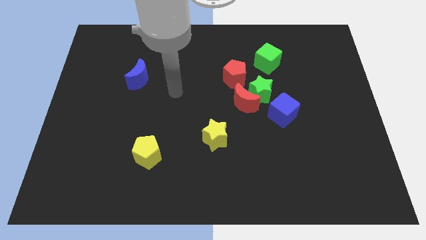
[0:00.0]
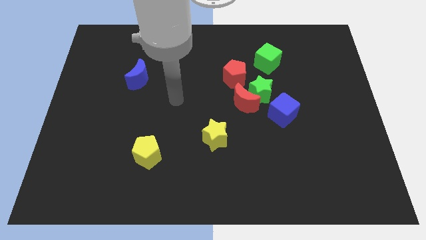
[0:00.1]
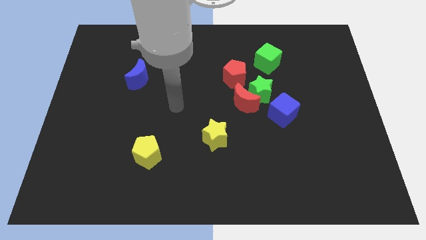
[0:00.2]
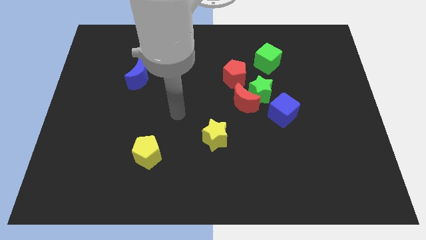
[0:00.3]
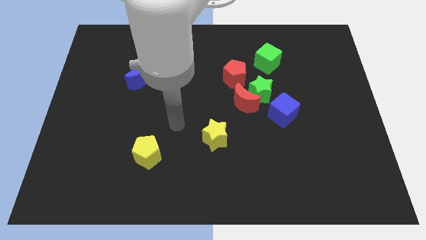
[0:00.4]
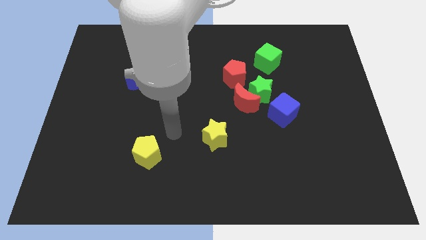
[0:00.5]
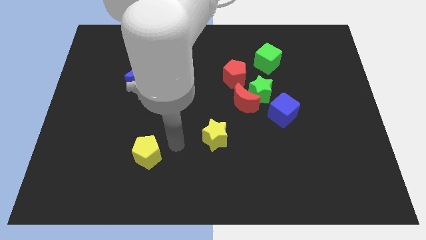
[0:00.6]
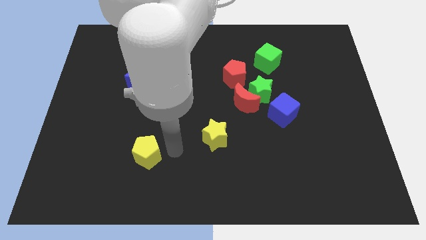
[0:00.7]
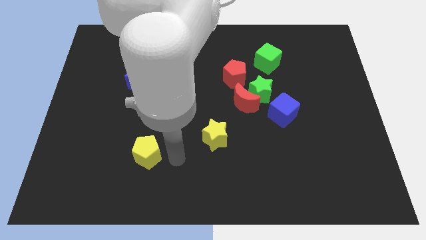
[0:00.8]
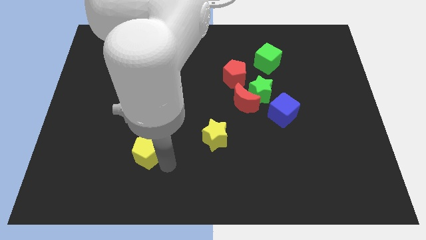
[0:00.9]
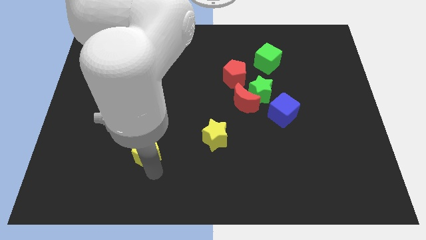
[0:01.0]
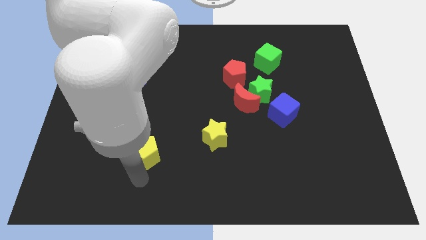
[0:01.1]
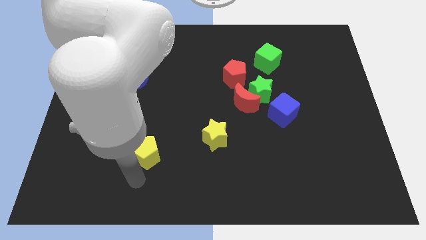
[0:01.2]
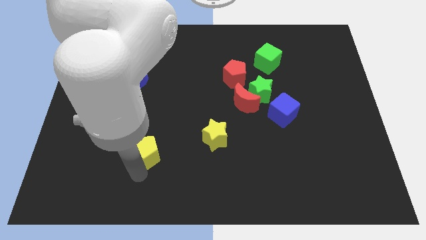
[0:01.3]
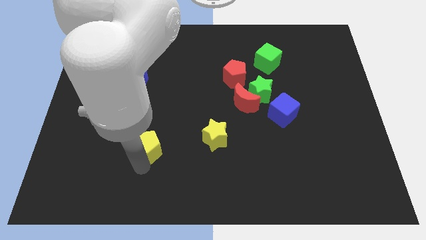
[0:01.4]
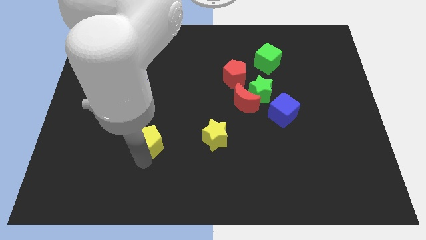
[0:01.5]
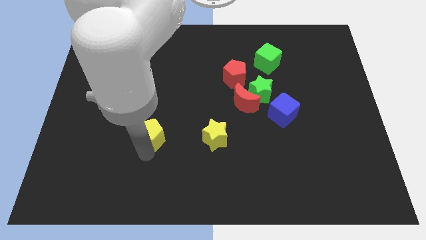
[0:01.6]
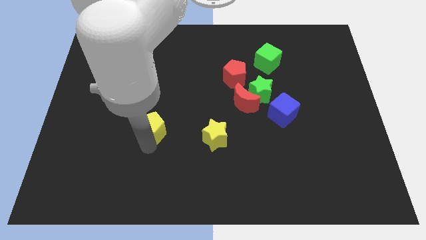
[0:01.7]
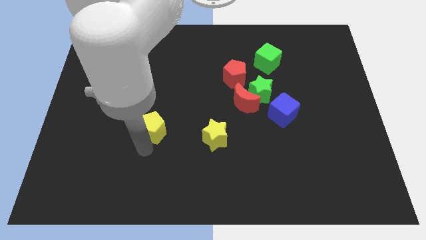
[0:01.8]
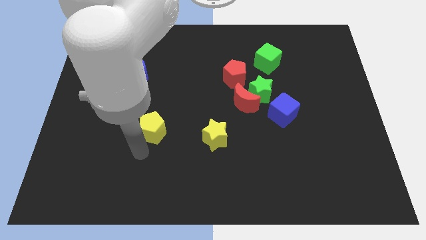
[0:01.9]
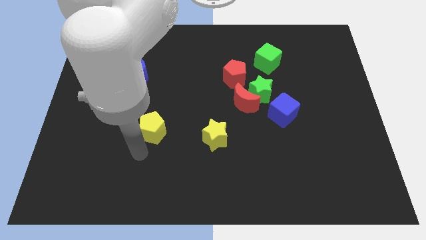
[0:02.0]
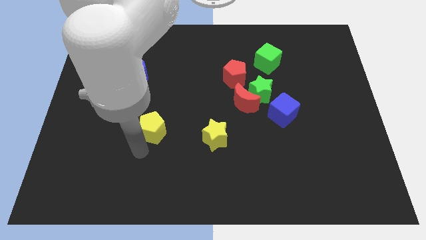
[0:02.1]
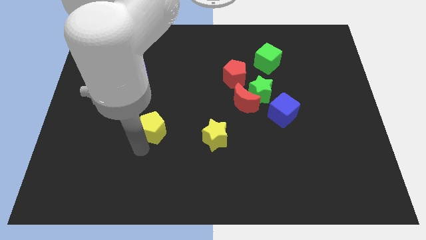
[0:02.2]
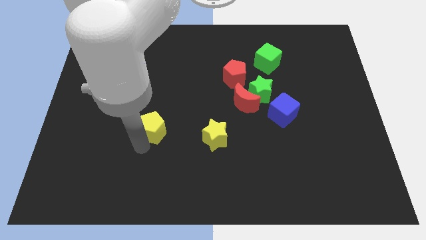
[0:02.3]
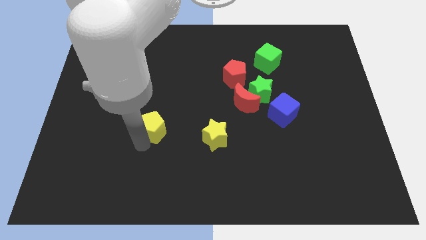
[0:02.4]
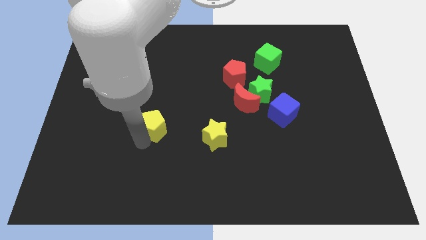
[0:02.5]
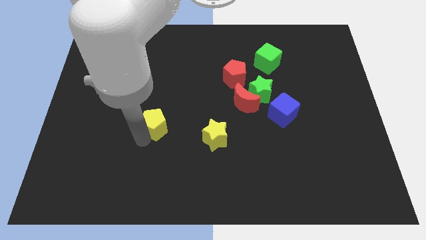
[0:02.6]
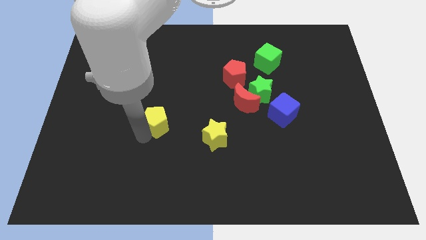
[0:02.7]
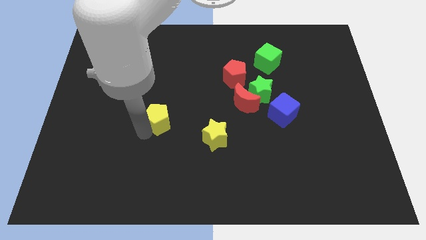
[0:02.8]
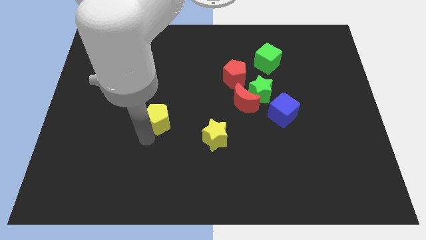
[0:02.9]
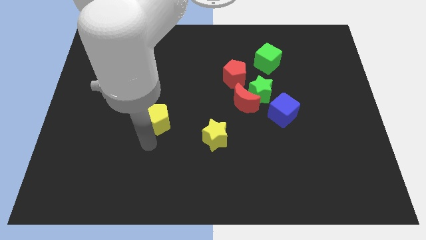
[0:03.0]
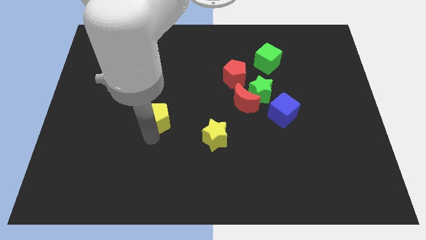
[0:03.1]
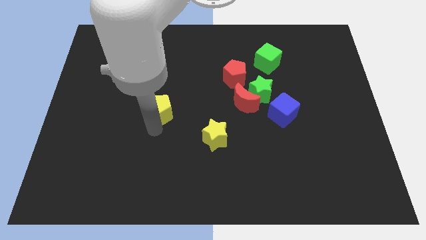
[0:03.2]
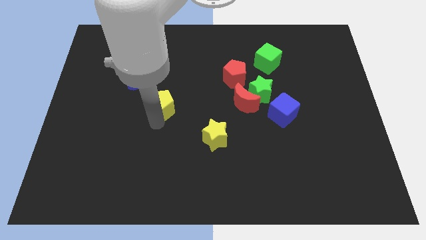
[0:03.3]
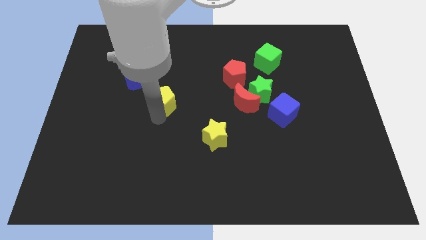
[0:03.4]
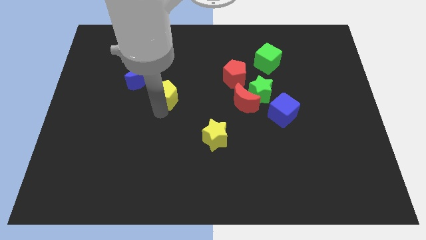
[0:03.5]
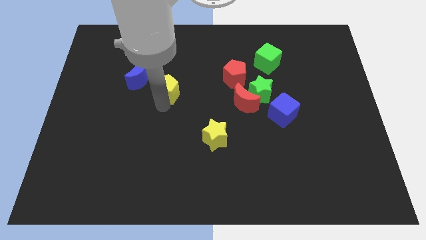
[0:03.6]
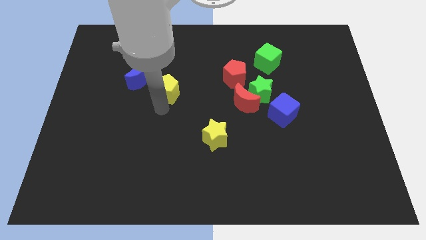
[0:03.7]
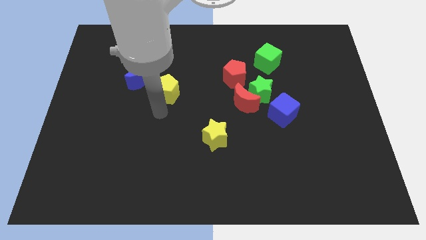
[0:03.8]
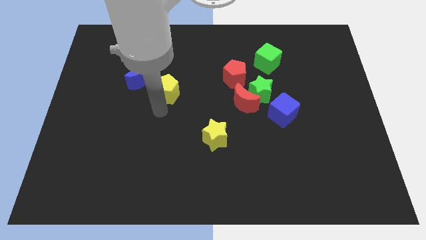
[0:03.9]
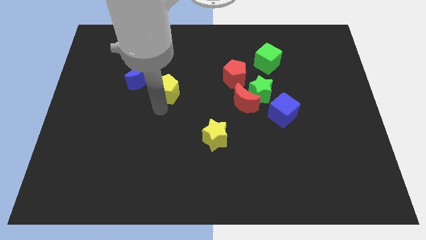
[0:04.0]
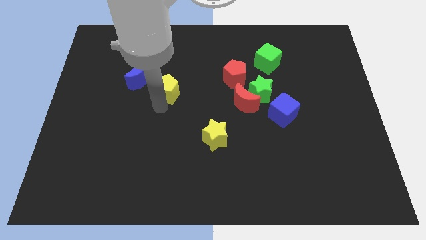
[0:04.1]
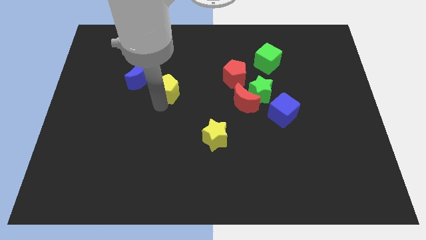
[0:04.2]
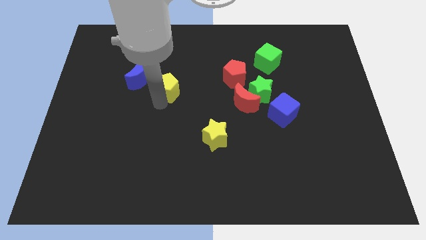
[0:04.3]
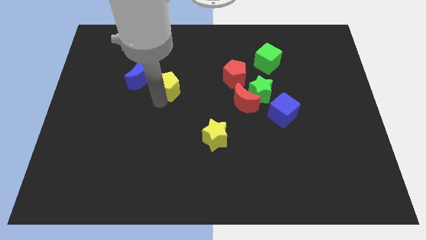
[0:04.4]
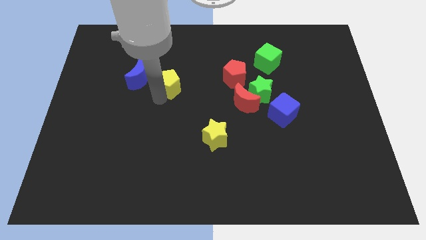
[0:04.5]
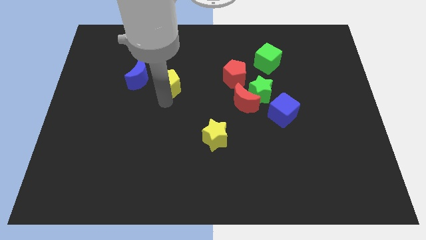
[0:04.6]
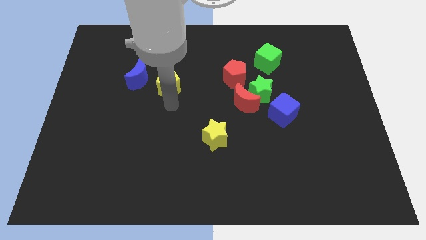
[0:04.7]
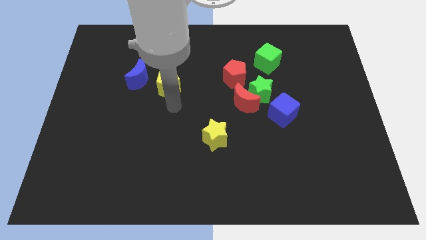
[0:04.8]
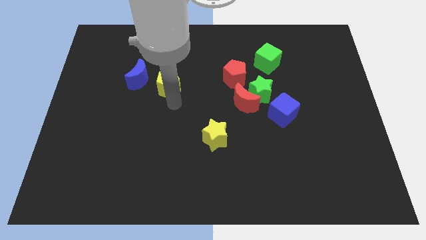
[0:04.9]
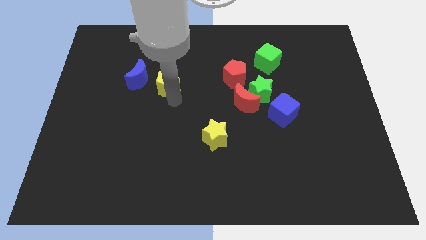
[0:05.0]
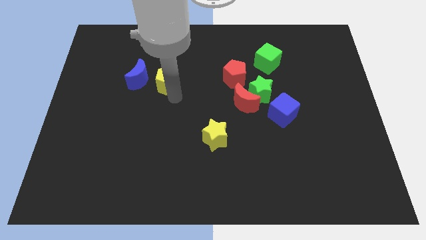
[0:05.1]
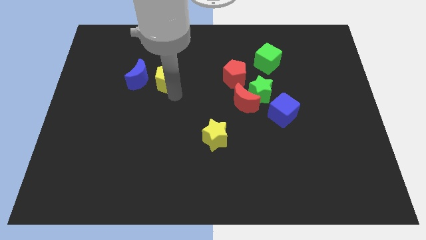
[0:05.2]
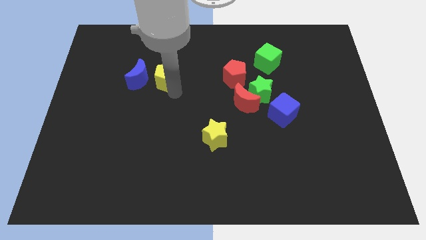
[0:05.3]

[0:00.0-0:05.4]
put the yellow pentagon diagonally up and to the right of the blue moon

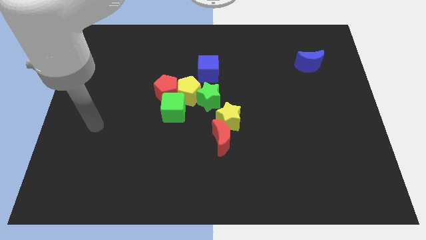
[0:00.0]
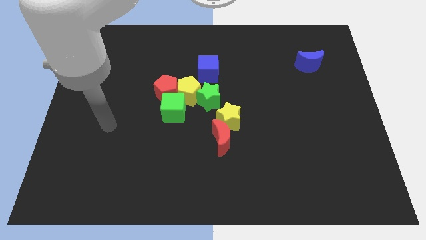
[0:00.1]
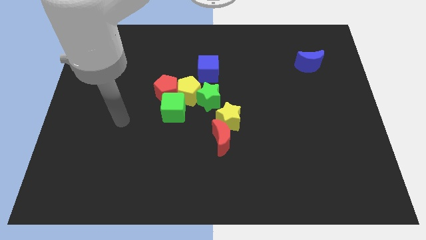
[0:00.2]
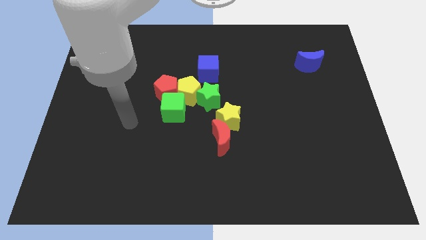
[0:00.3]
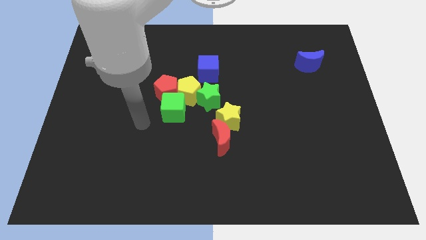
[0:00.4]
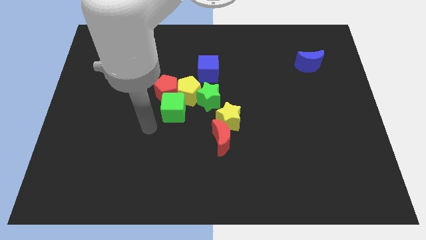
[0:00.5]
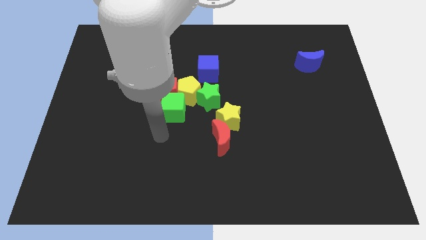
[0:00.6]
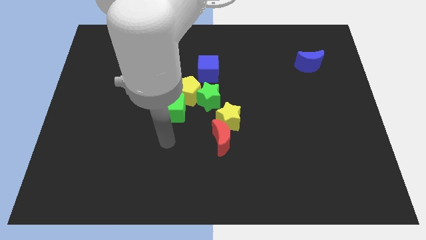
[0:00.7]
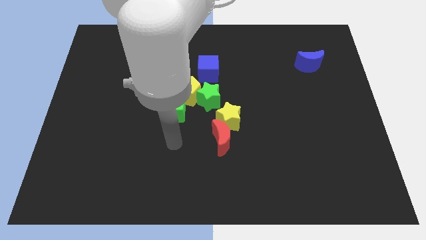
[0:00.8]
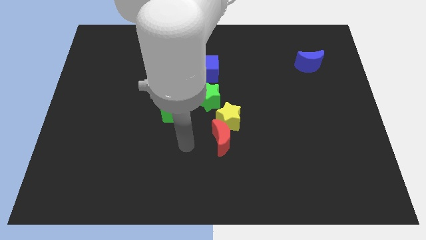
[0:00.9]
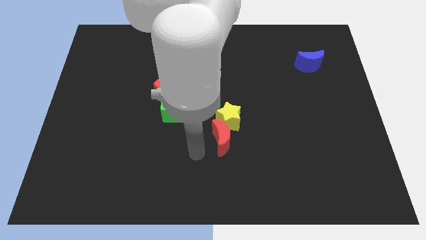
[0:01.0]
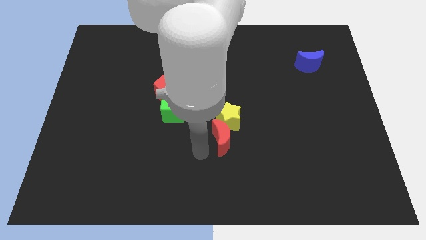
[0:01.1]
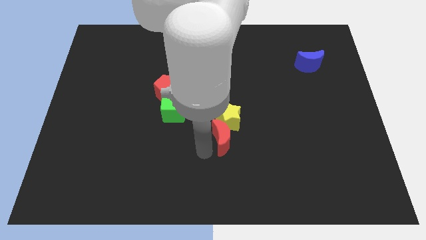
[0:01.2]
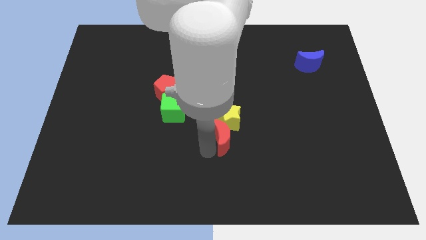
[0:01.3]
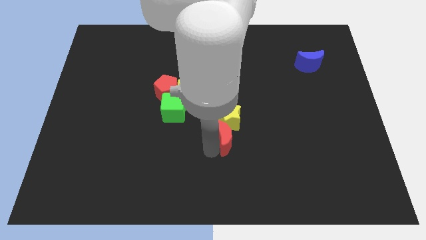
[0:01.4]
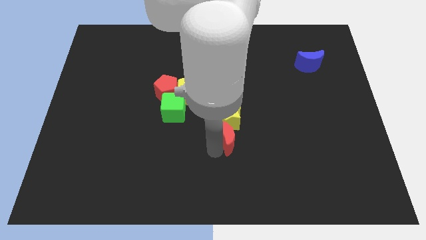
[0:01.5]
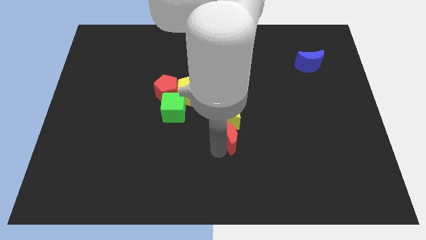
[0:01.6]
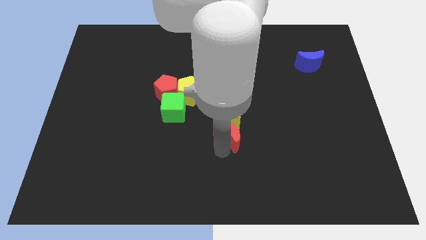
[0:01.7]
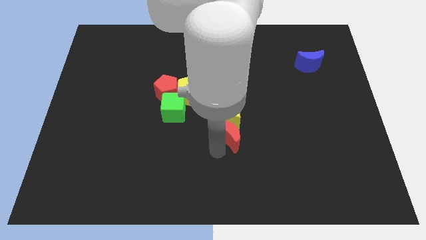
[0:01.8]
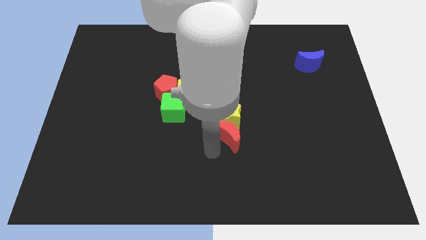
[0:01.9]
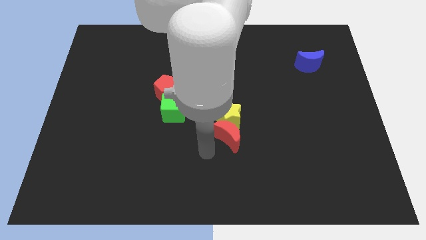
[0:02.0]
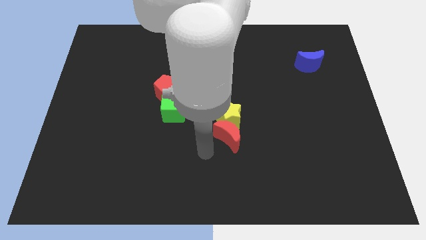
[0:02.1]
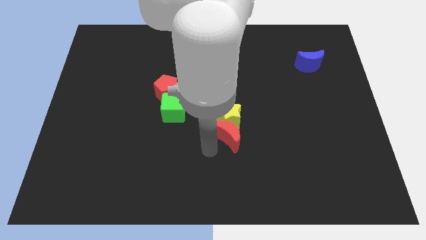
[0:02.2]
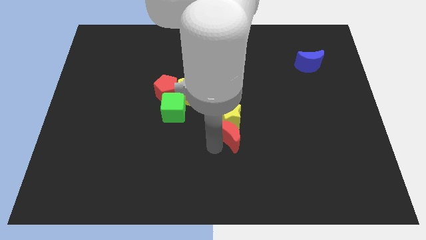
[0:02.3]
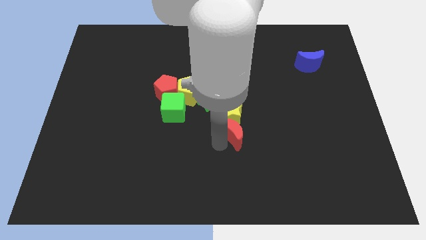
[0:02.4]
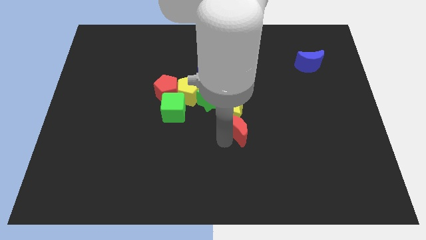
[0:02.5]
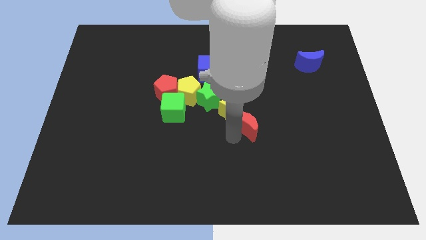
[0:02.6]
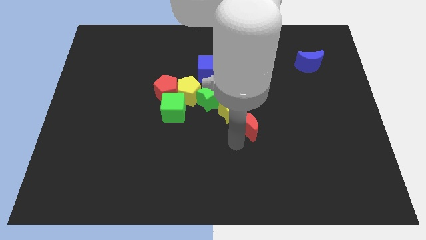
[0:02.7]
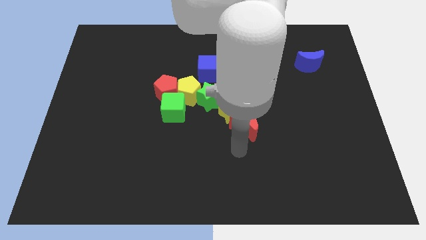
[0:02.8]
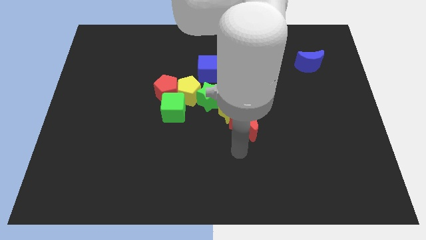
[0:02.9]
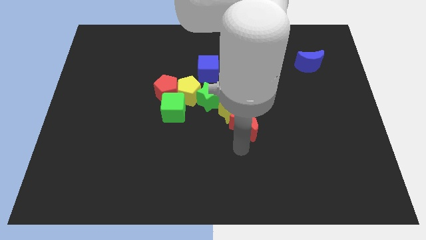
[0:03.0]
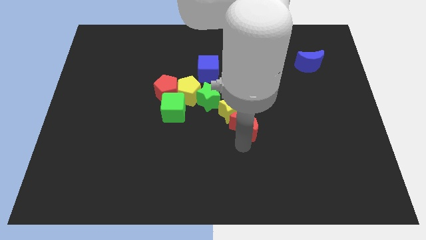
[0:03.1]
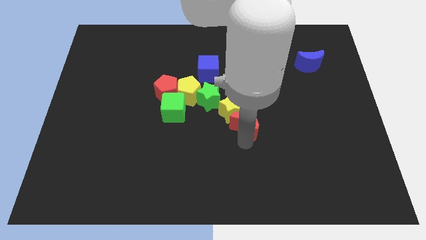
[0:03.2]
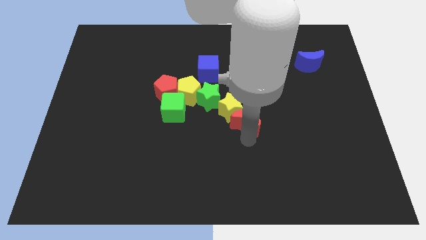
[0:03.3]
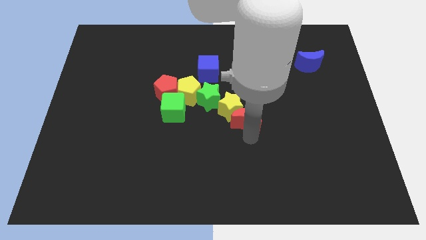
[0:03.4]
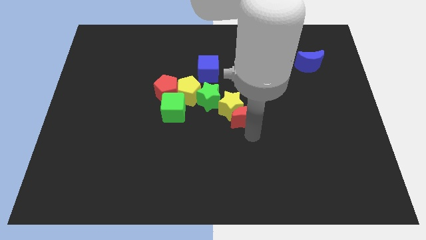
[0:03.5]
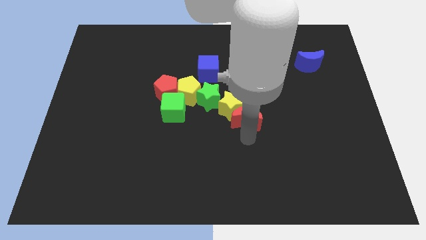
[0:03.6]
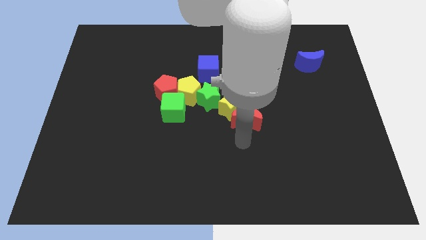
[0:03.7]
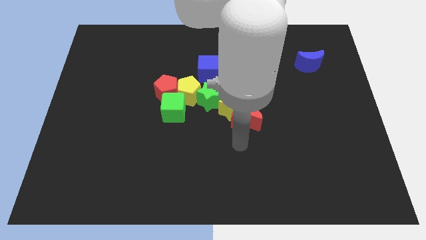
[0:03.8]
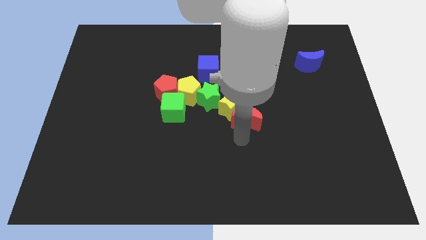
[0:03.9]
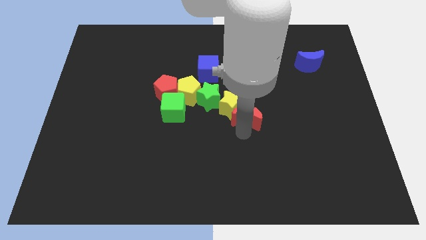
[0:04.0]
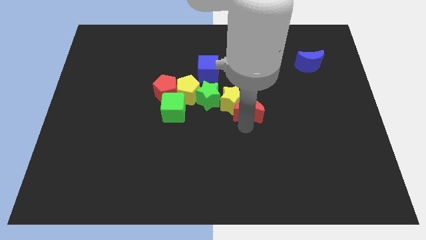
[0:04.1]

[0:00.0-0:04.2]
put the red moon to the right of the green star
